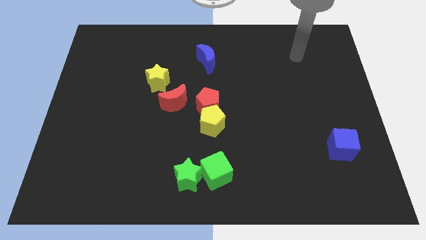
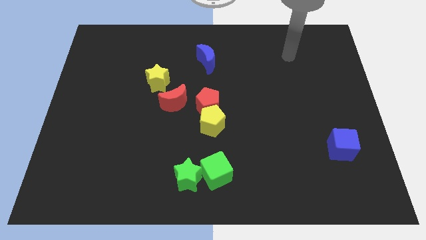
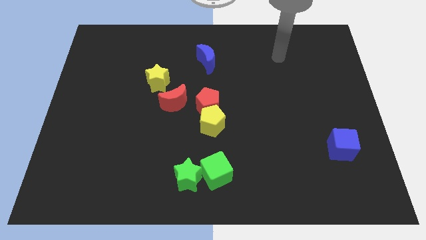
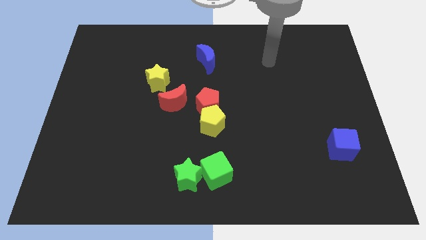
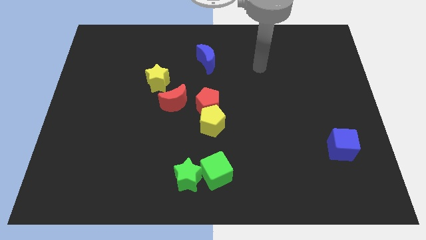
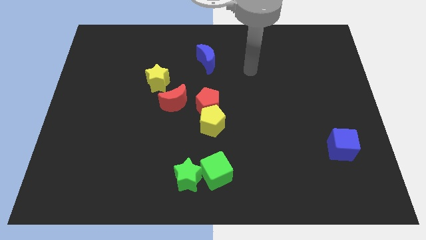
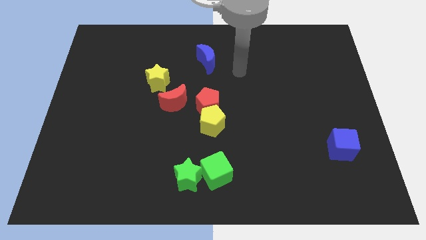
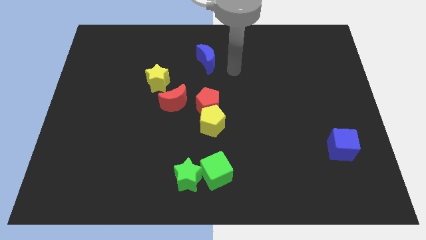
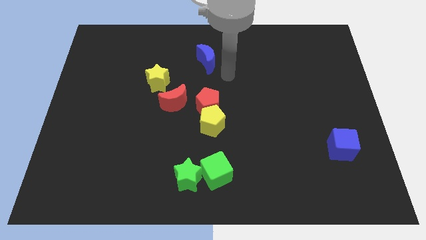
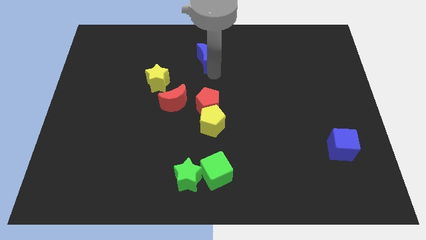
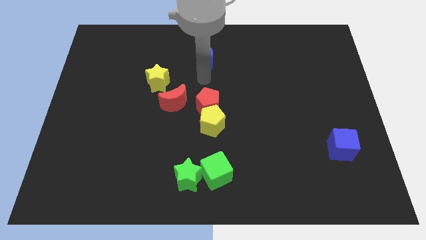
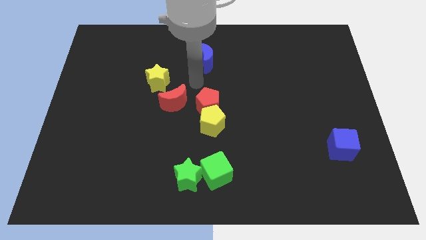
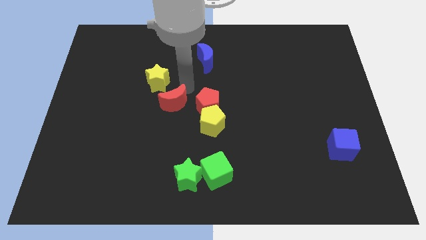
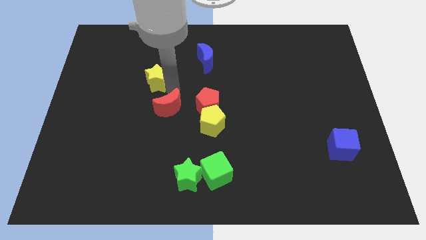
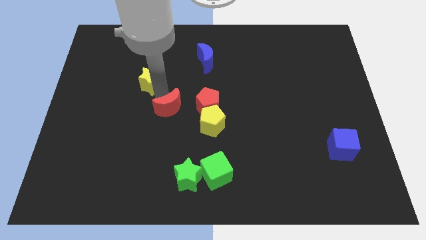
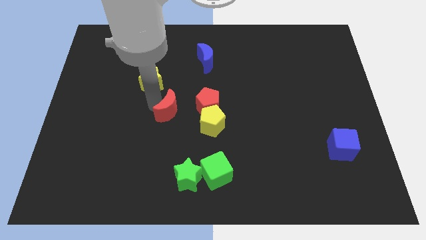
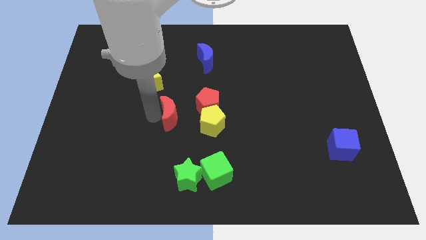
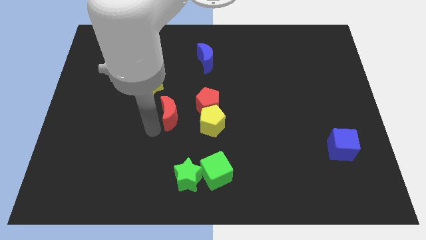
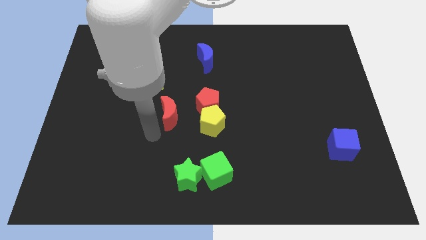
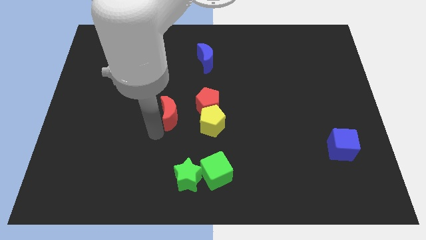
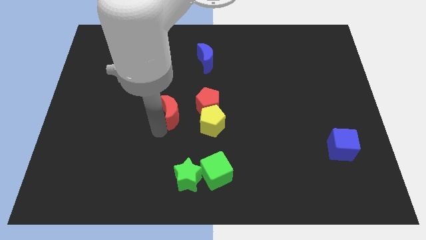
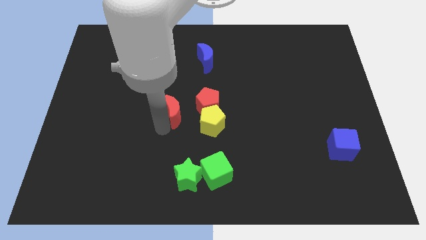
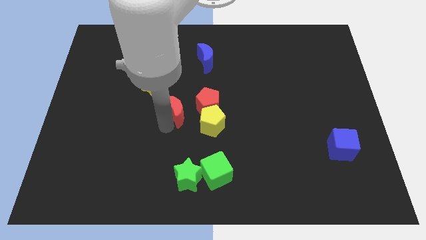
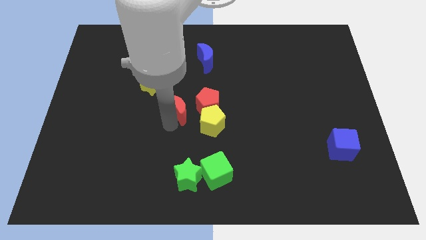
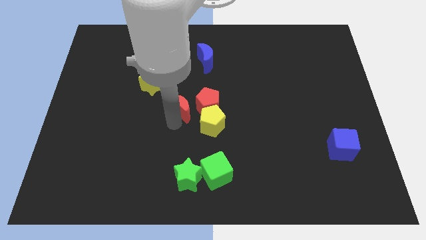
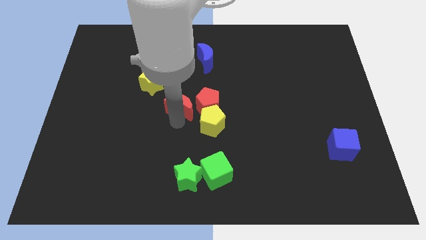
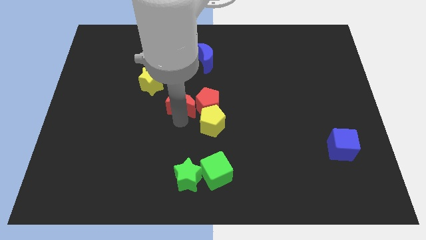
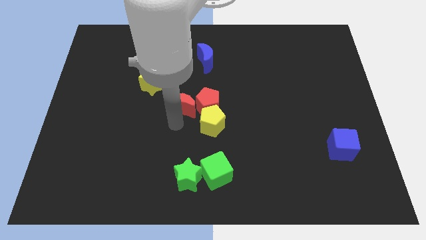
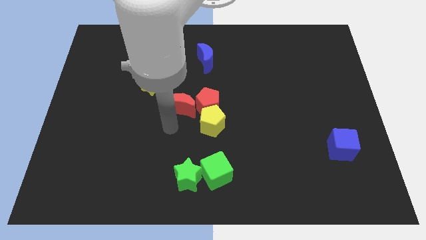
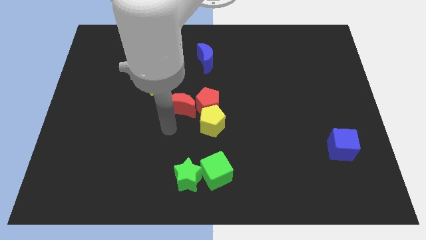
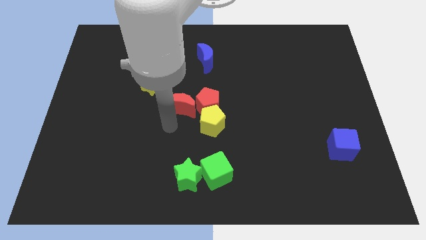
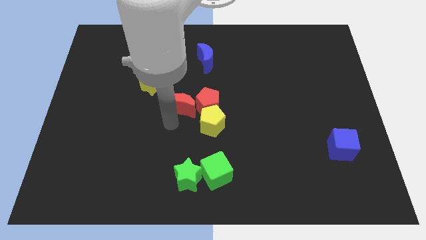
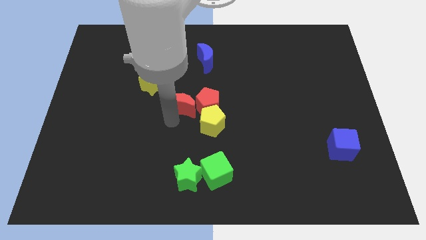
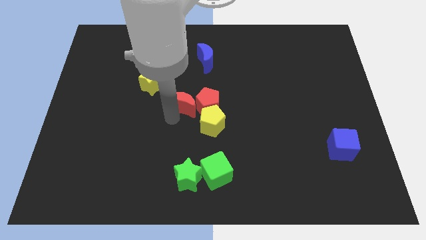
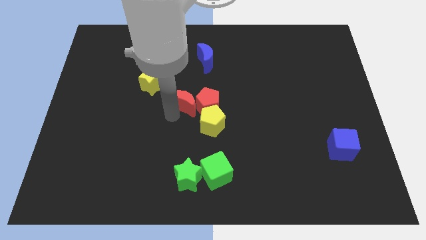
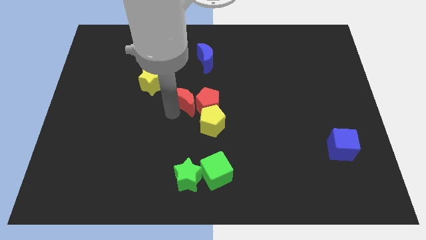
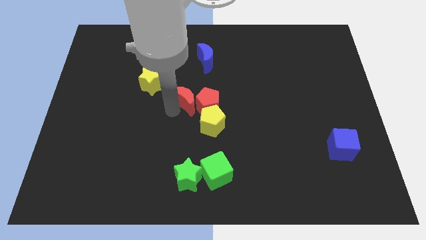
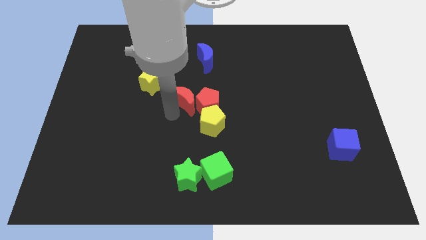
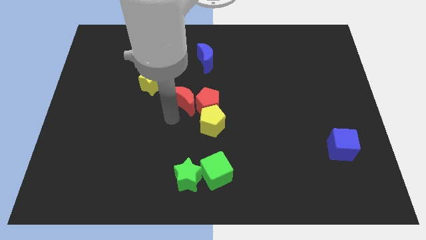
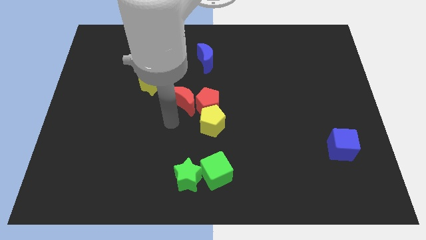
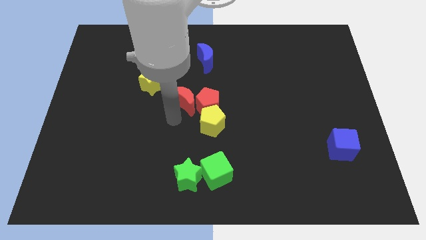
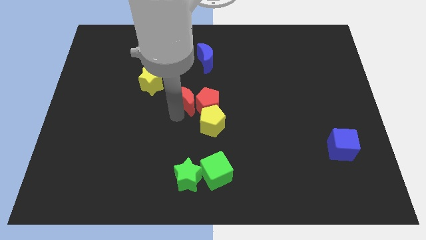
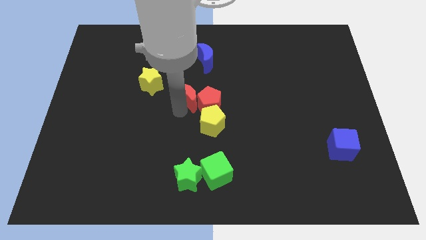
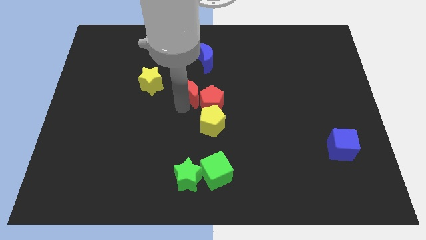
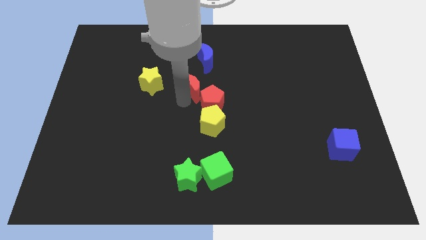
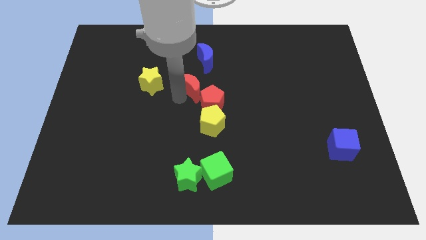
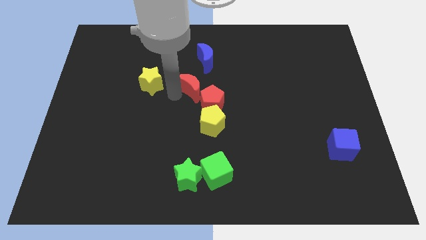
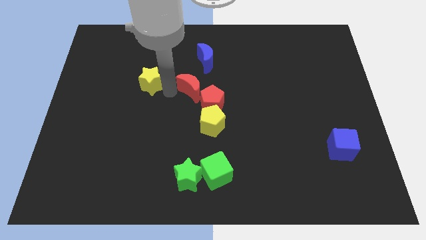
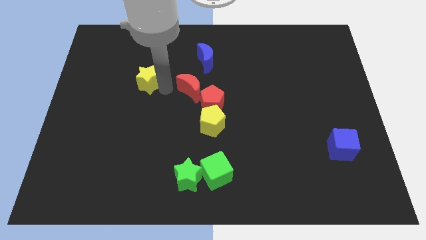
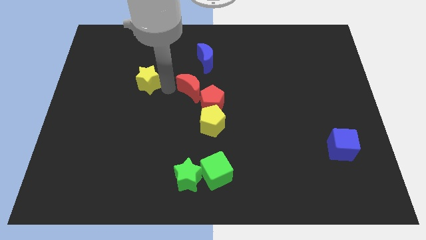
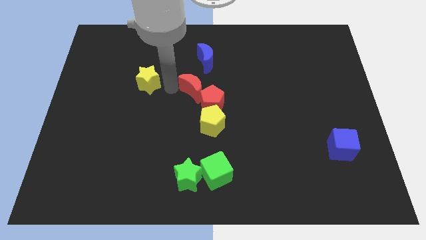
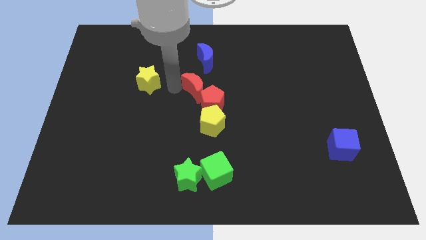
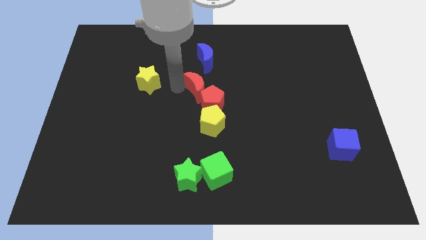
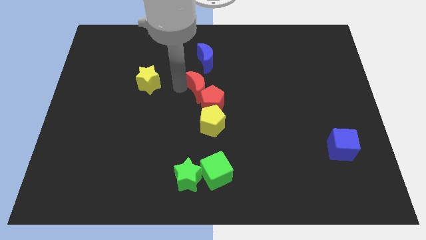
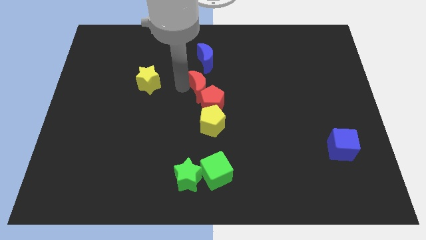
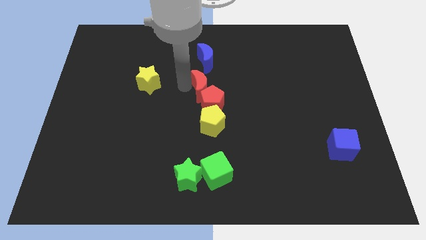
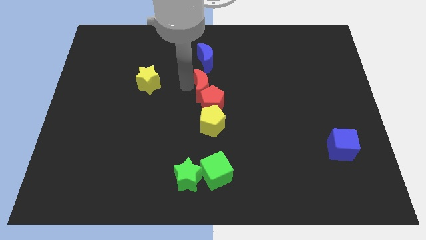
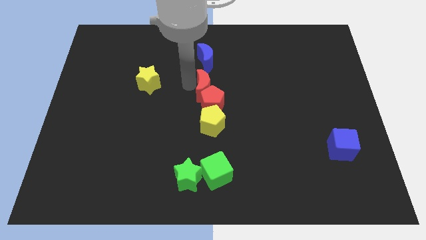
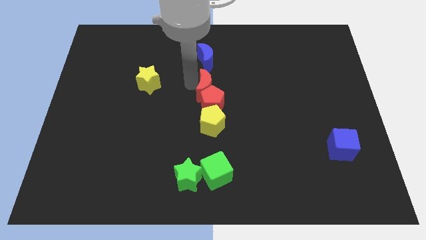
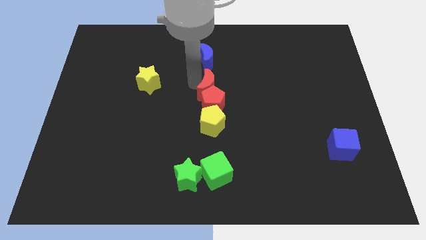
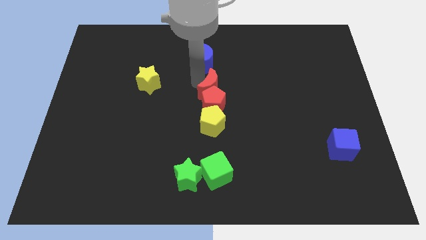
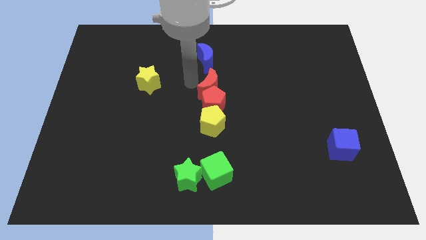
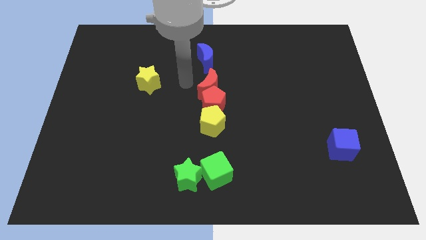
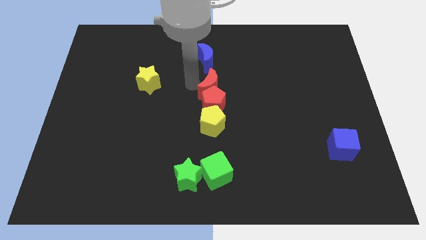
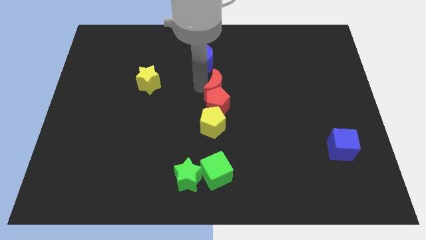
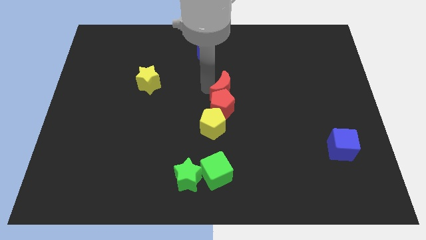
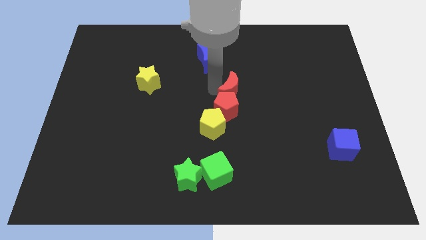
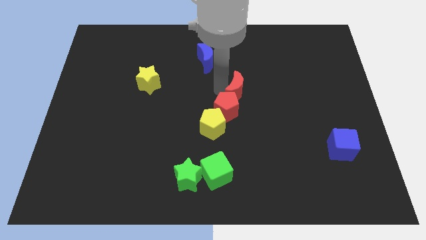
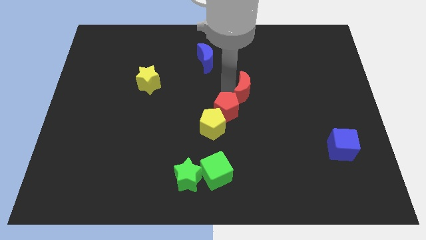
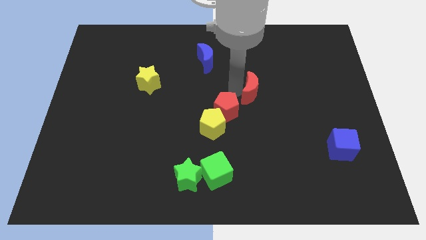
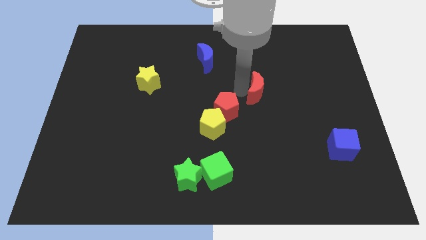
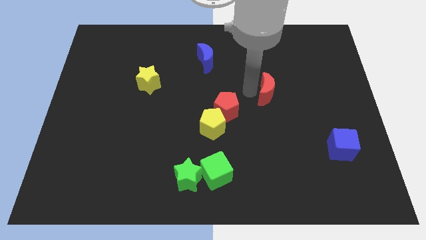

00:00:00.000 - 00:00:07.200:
slide the red moon to the right

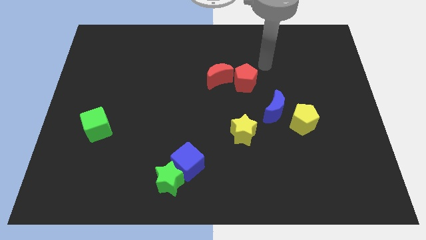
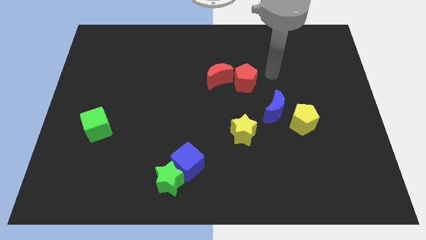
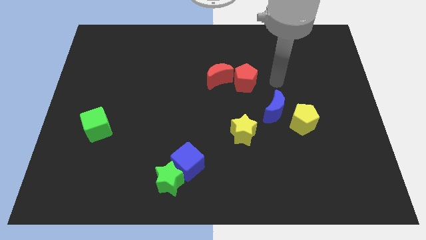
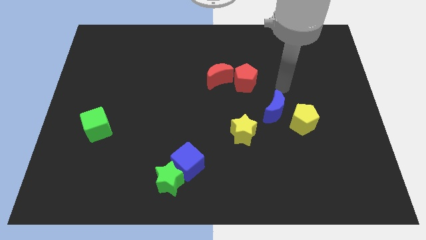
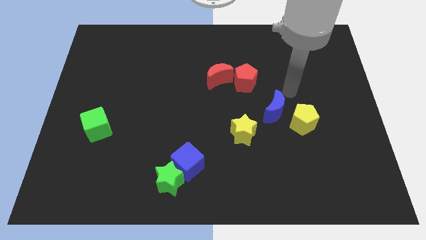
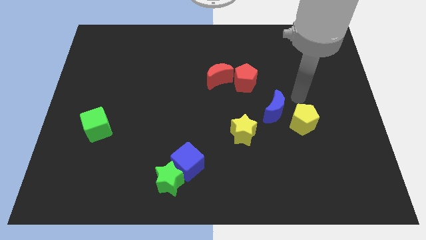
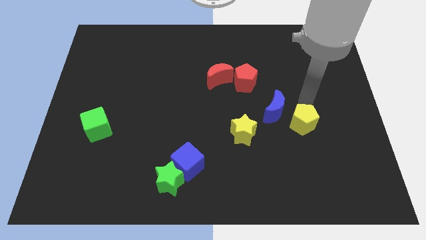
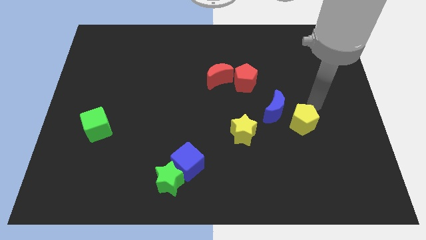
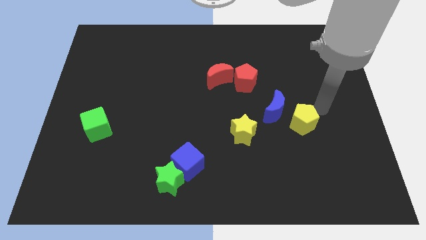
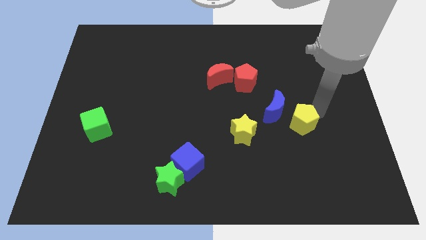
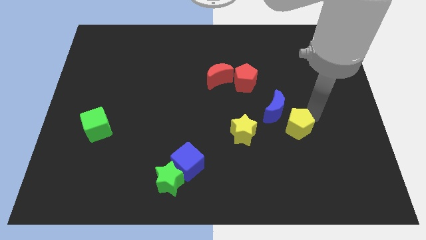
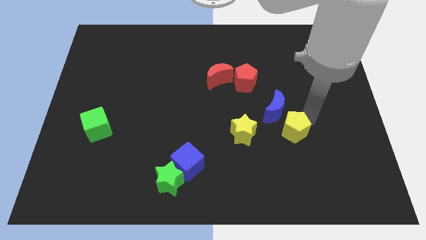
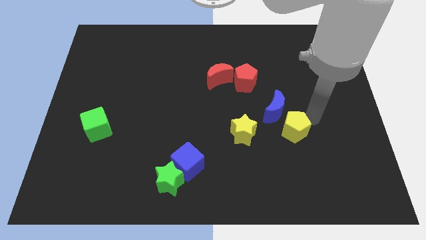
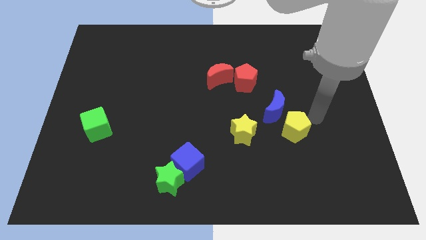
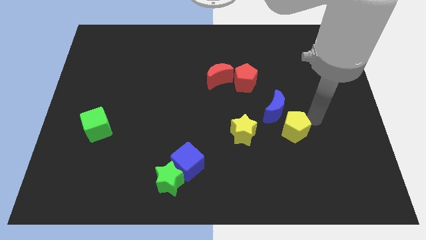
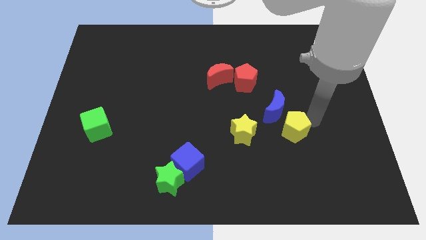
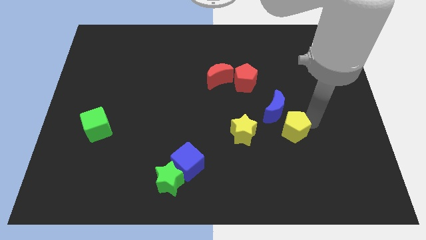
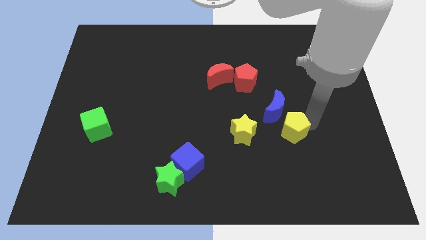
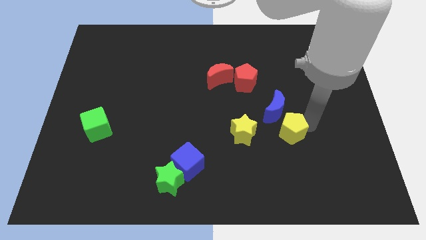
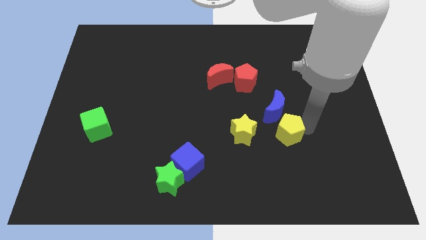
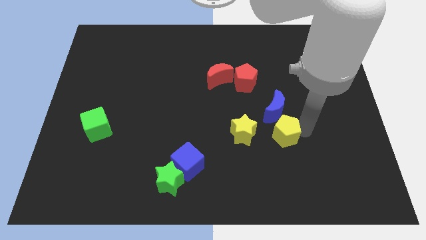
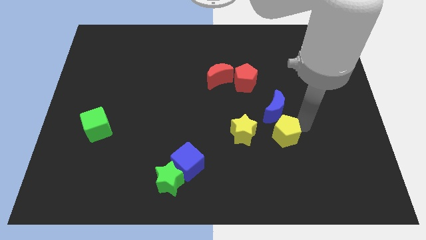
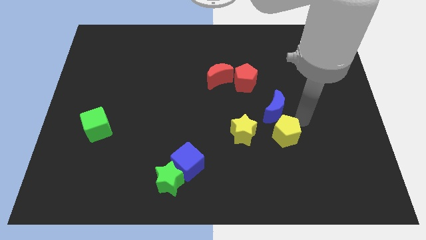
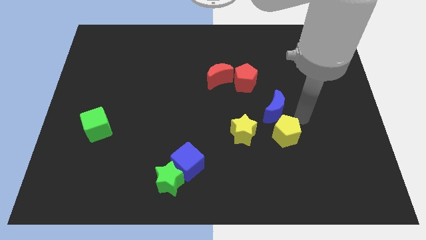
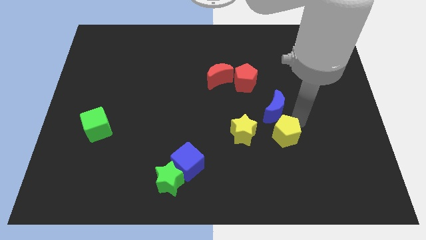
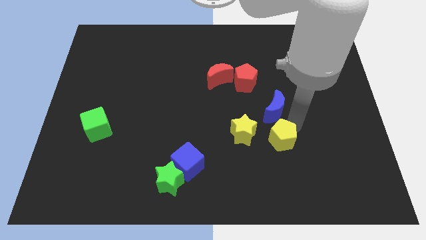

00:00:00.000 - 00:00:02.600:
slightly slide the yellow pentagon diagonally down and to the left
